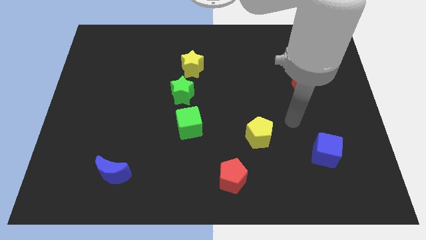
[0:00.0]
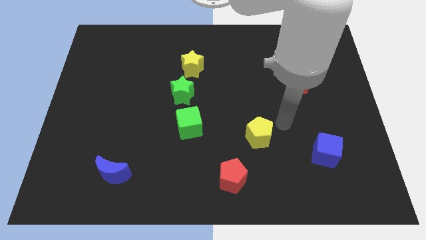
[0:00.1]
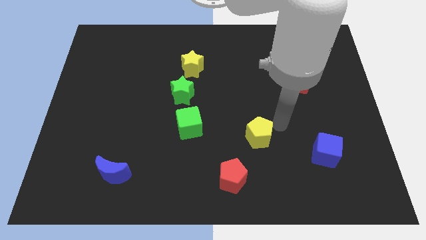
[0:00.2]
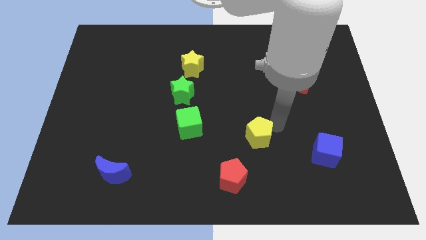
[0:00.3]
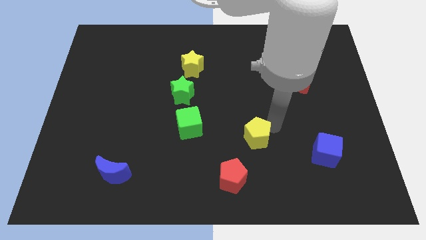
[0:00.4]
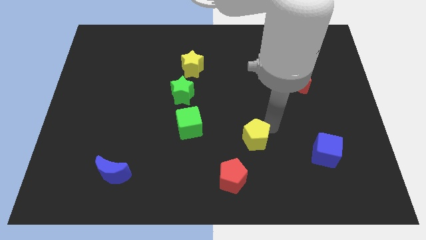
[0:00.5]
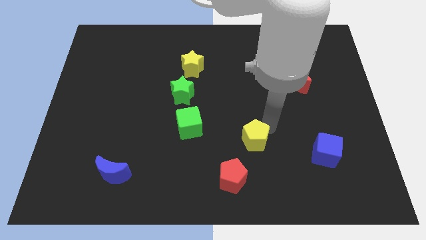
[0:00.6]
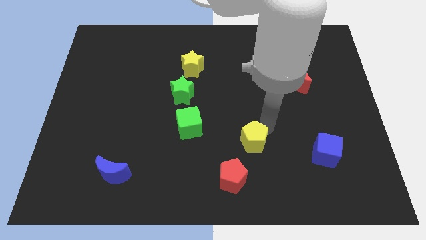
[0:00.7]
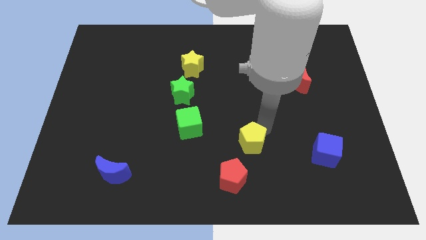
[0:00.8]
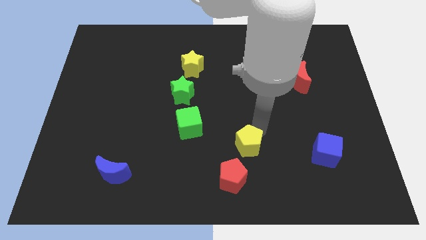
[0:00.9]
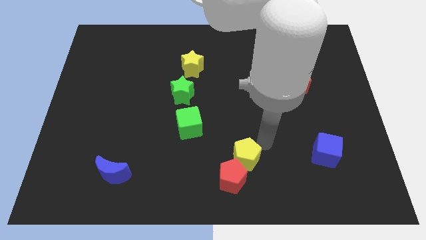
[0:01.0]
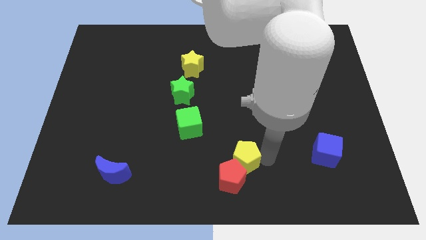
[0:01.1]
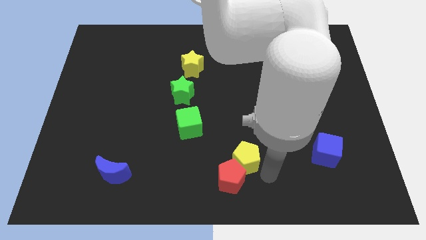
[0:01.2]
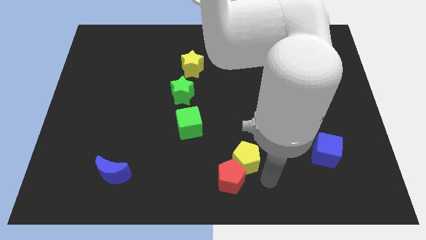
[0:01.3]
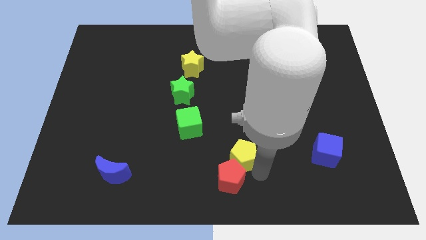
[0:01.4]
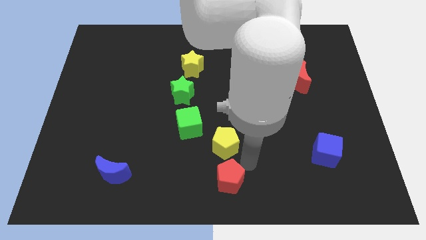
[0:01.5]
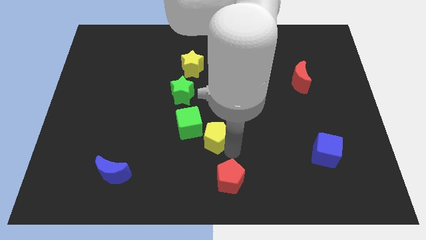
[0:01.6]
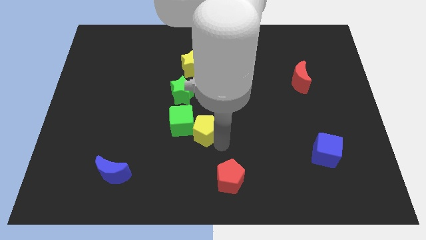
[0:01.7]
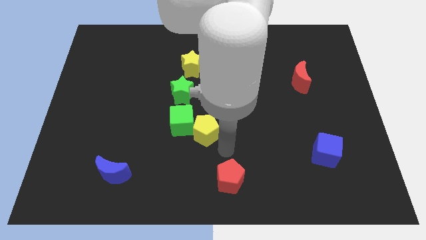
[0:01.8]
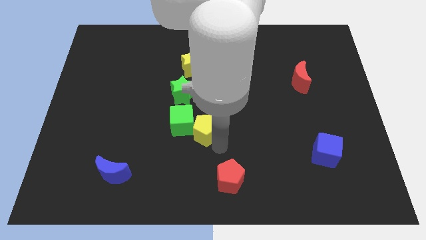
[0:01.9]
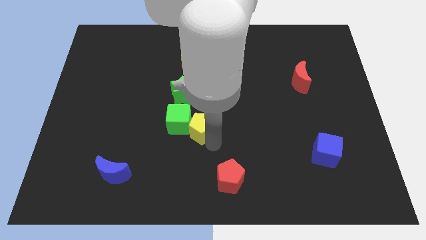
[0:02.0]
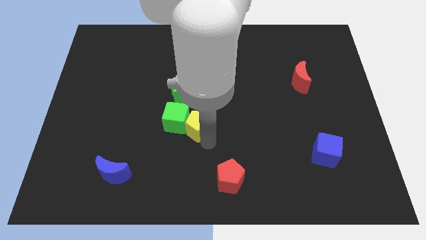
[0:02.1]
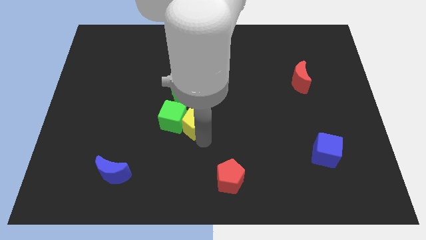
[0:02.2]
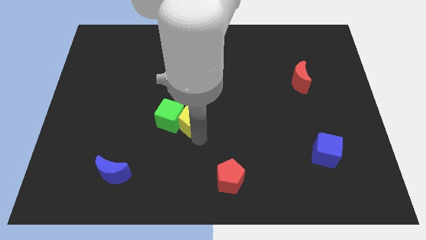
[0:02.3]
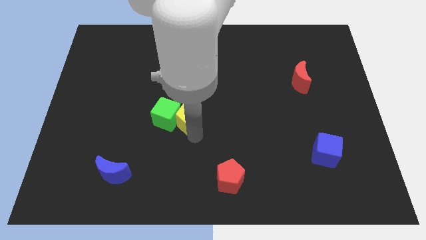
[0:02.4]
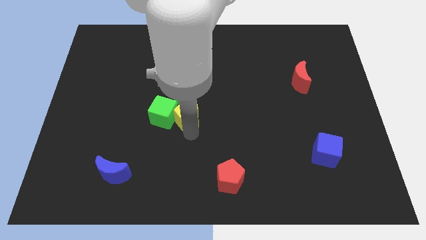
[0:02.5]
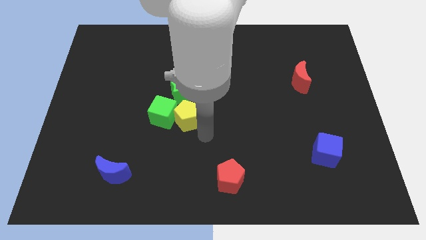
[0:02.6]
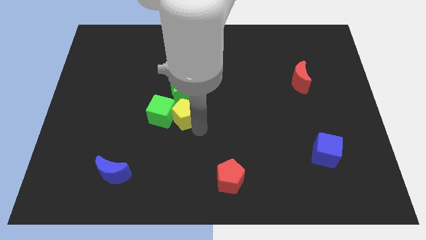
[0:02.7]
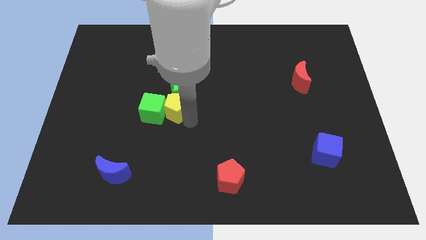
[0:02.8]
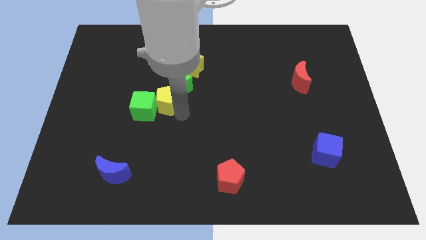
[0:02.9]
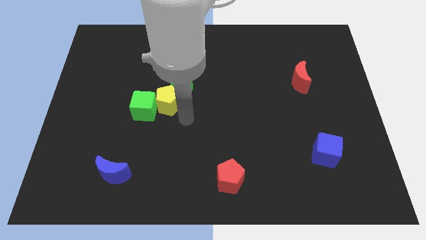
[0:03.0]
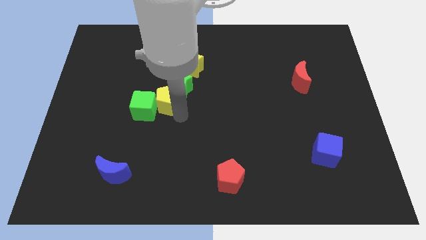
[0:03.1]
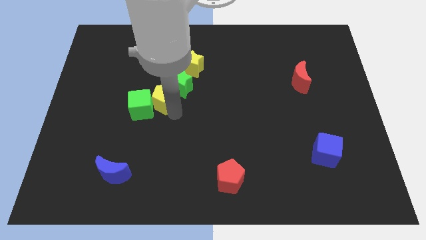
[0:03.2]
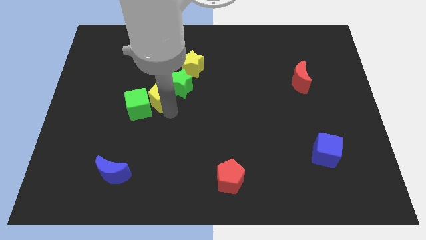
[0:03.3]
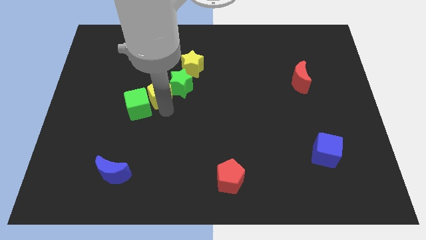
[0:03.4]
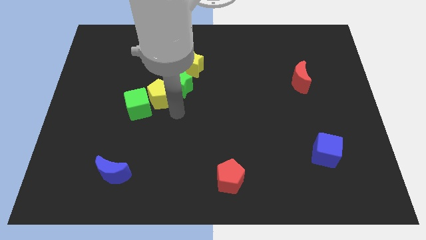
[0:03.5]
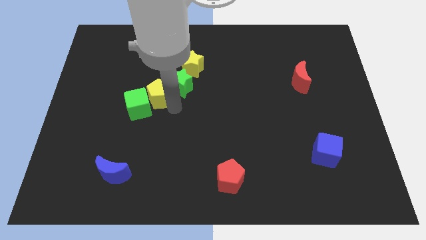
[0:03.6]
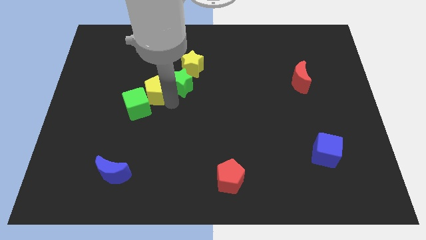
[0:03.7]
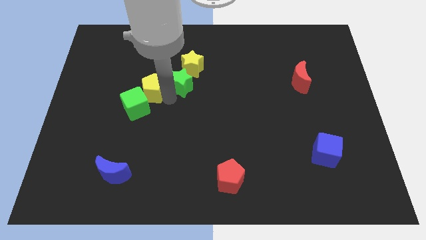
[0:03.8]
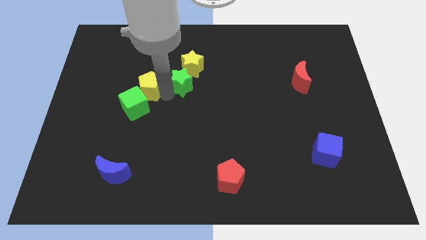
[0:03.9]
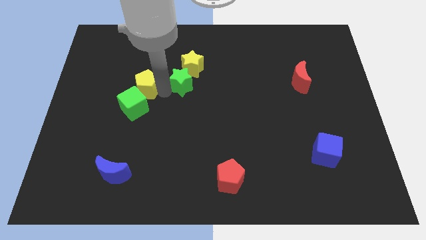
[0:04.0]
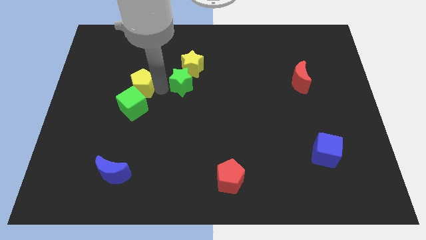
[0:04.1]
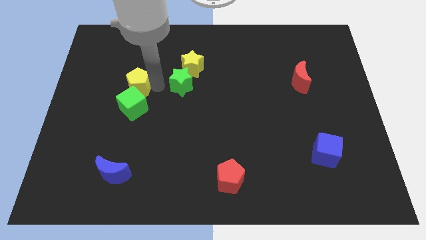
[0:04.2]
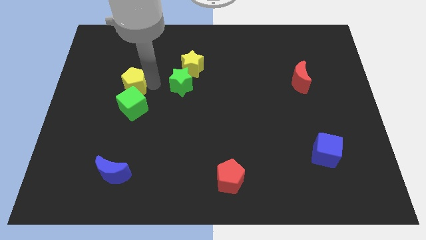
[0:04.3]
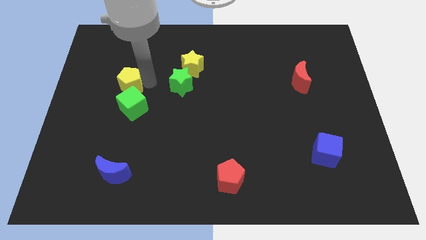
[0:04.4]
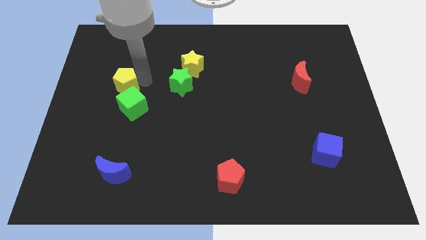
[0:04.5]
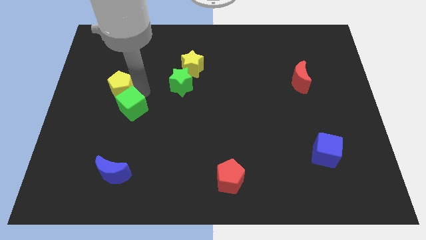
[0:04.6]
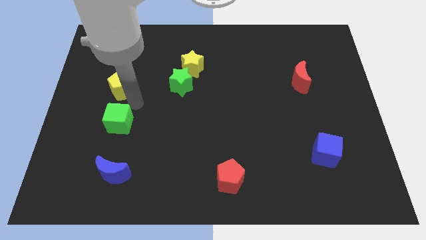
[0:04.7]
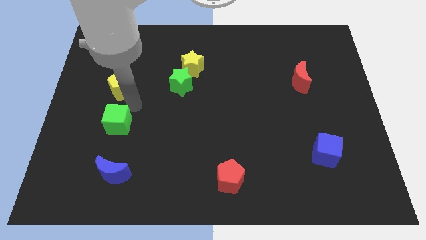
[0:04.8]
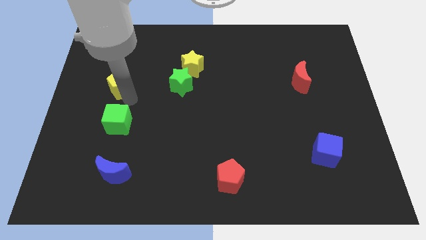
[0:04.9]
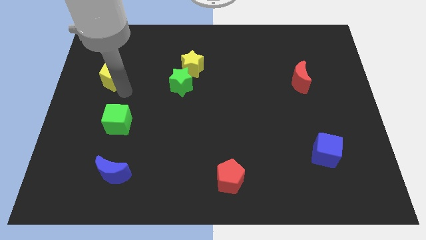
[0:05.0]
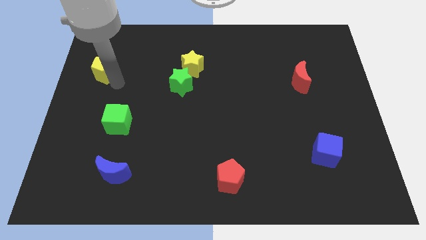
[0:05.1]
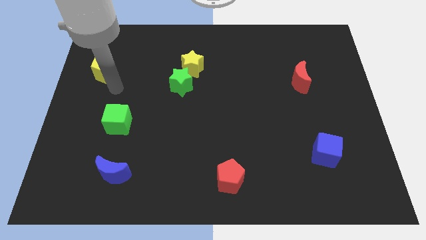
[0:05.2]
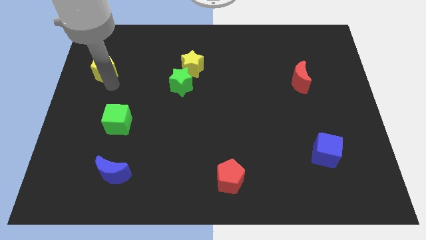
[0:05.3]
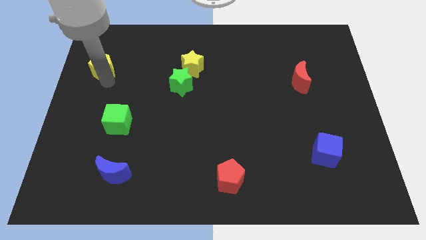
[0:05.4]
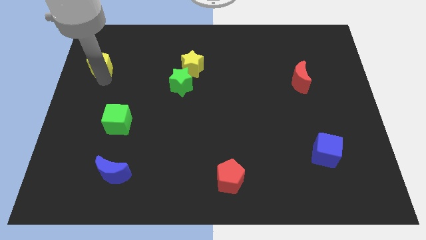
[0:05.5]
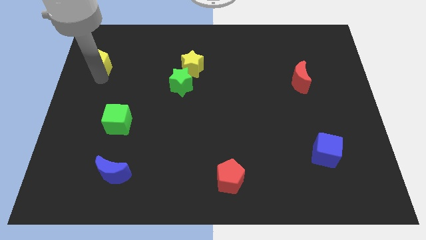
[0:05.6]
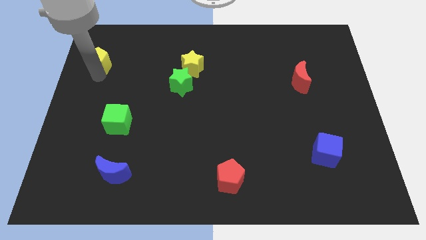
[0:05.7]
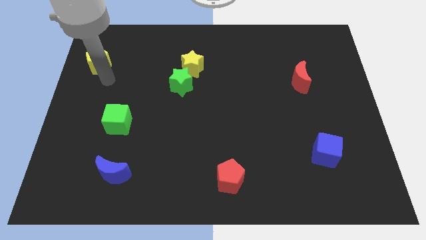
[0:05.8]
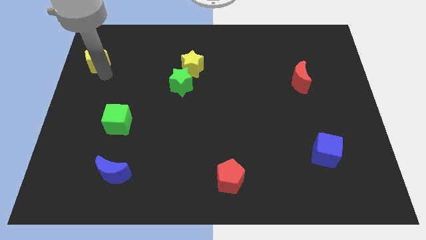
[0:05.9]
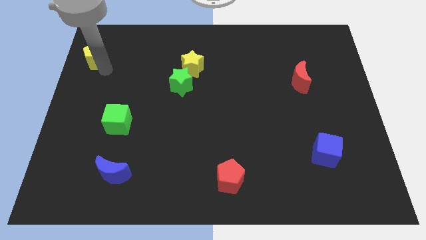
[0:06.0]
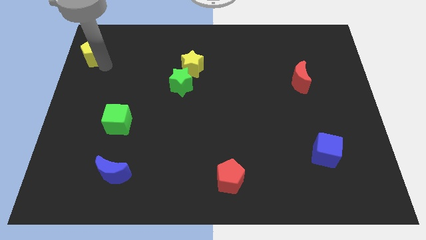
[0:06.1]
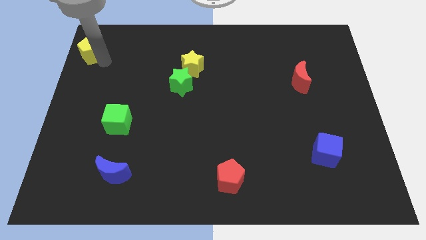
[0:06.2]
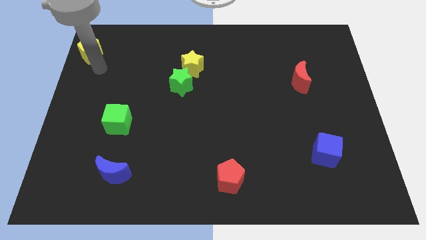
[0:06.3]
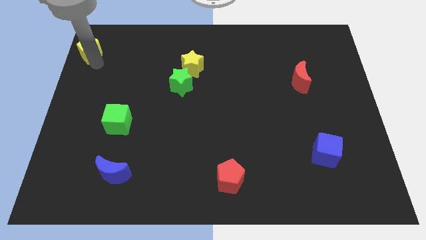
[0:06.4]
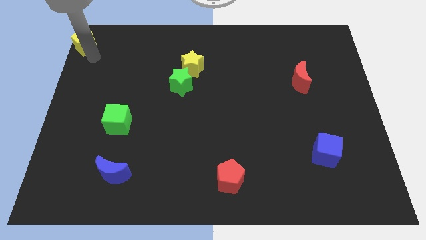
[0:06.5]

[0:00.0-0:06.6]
put the yellow pentagon to the top left

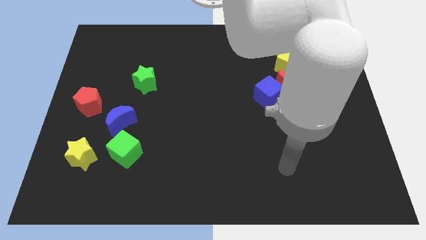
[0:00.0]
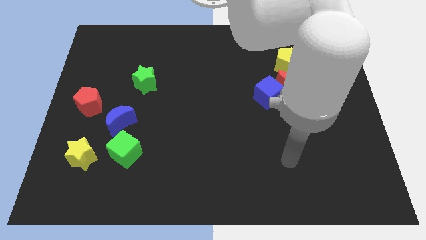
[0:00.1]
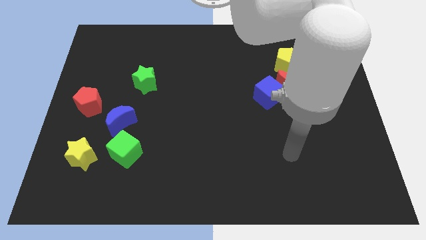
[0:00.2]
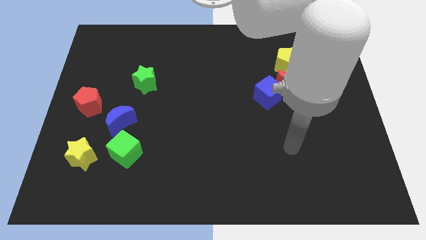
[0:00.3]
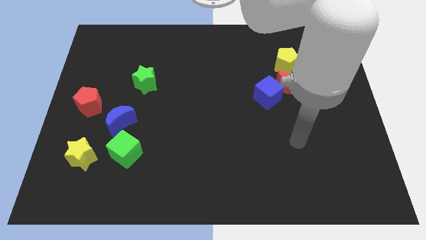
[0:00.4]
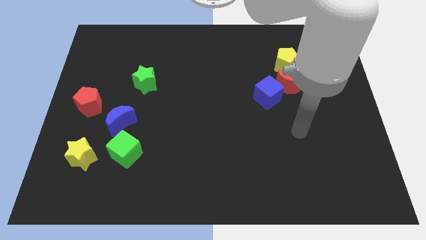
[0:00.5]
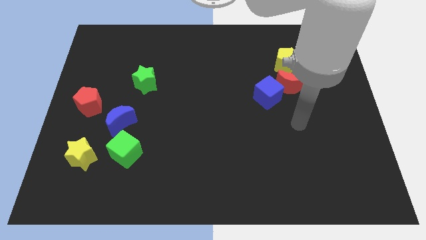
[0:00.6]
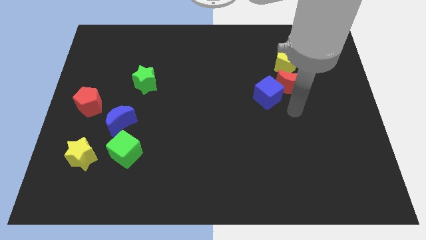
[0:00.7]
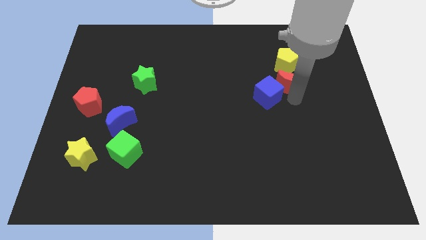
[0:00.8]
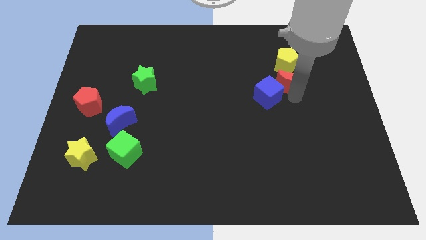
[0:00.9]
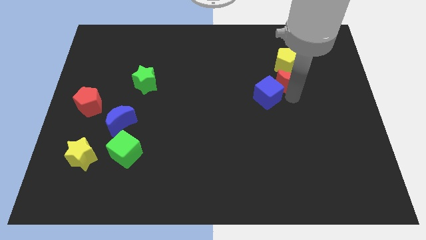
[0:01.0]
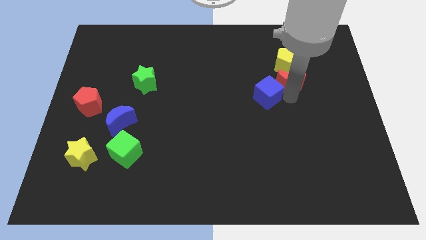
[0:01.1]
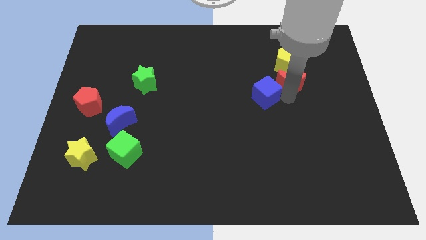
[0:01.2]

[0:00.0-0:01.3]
slide the blue cube to the center
